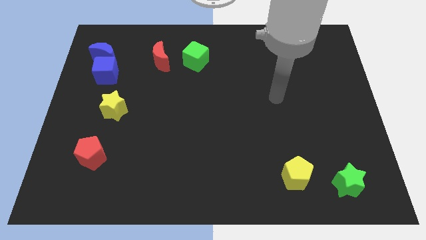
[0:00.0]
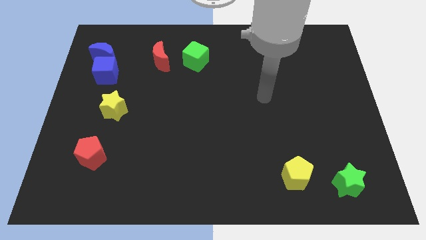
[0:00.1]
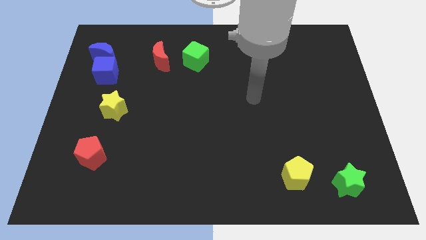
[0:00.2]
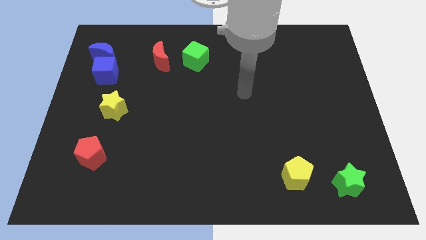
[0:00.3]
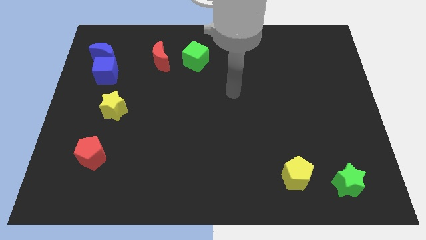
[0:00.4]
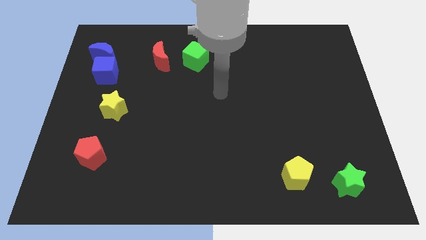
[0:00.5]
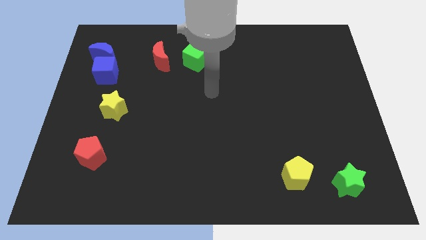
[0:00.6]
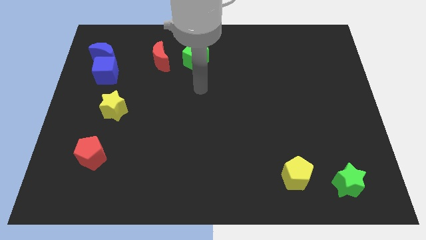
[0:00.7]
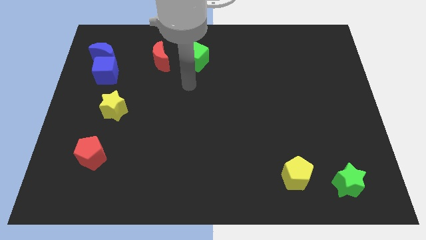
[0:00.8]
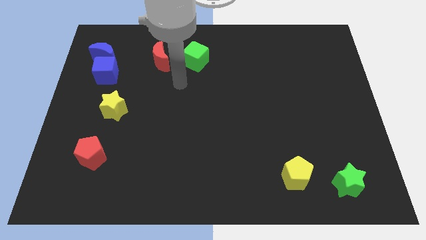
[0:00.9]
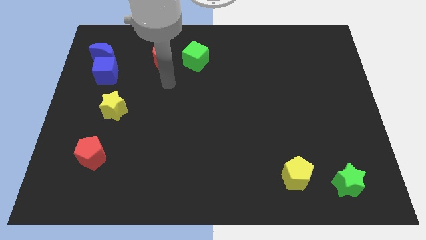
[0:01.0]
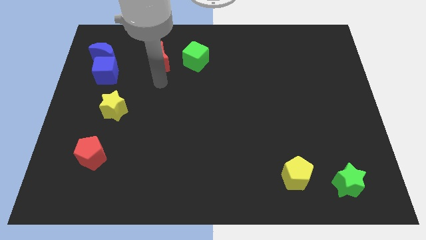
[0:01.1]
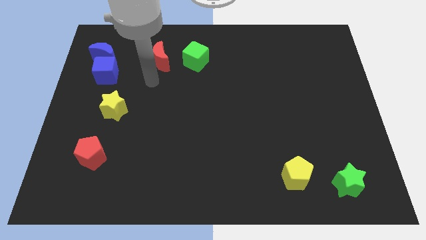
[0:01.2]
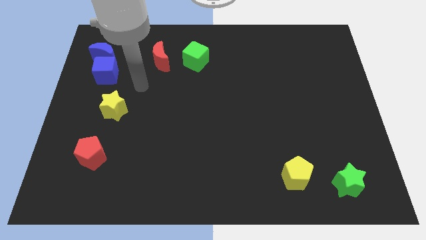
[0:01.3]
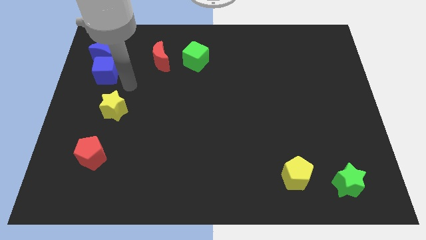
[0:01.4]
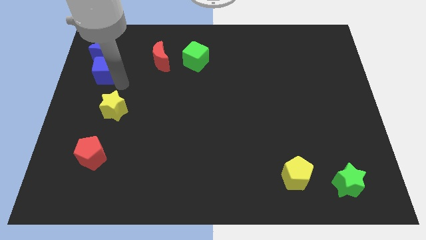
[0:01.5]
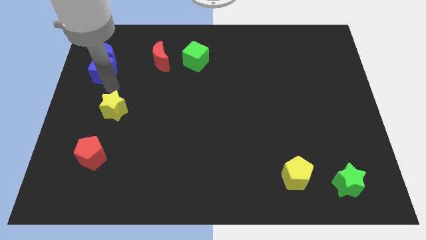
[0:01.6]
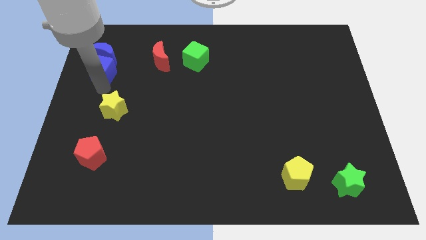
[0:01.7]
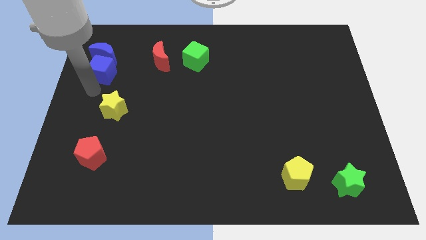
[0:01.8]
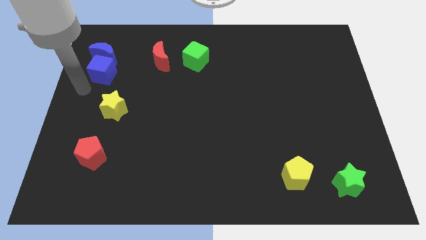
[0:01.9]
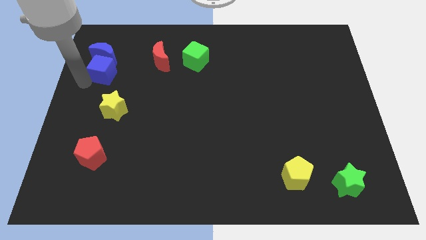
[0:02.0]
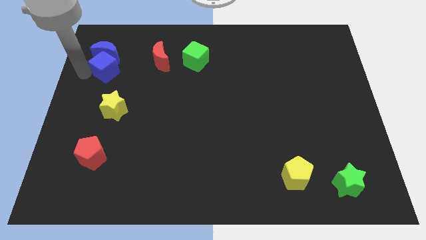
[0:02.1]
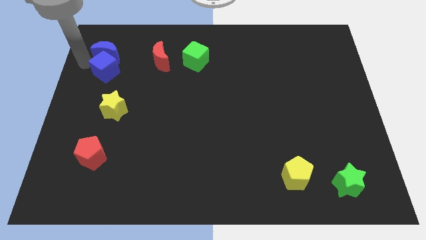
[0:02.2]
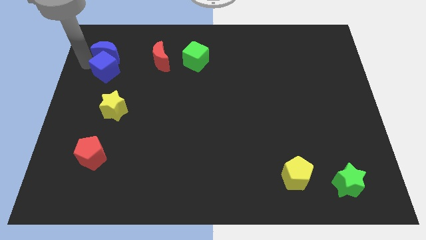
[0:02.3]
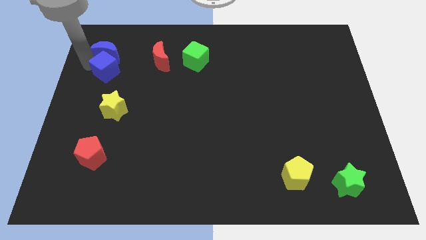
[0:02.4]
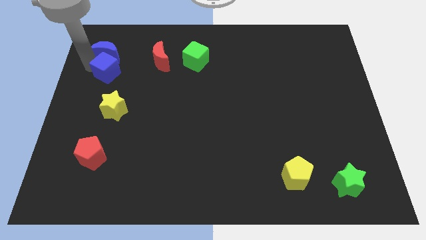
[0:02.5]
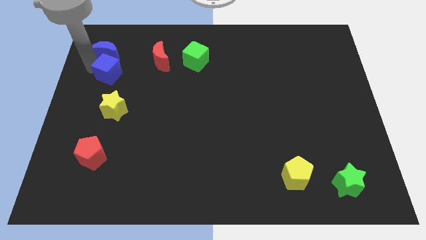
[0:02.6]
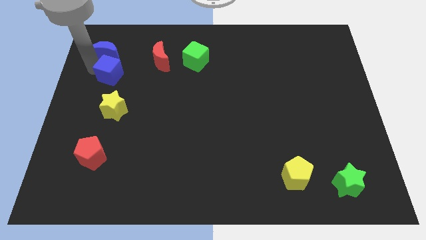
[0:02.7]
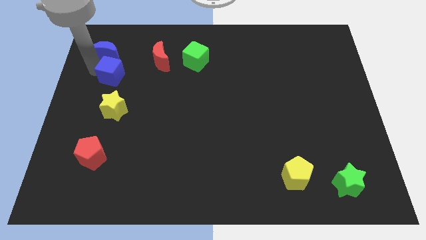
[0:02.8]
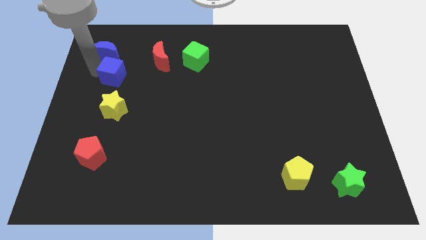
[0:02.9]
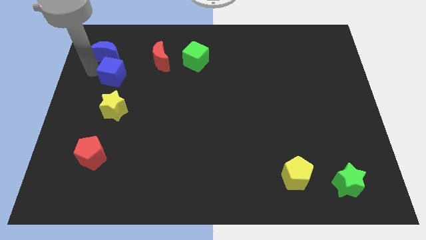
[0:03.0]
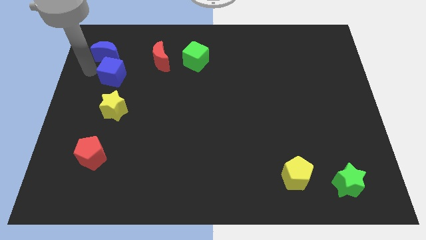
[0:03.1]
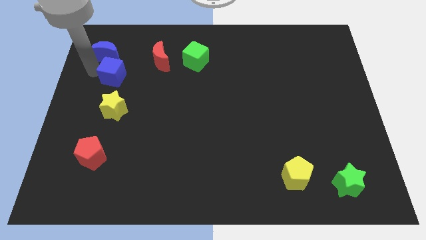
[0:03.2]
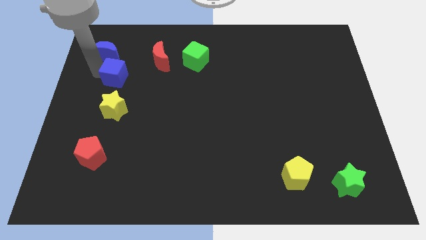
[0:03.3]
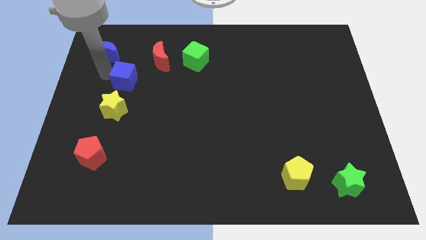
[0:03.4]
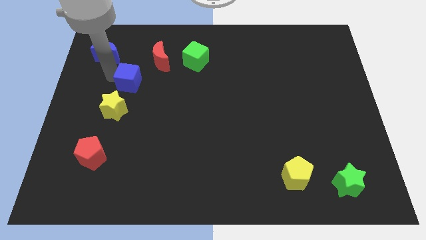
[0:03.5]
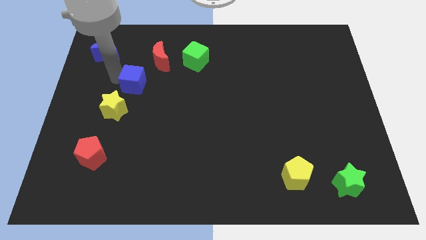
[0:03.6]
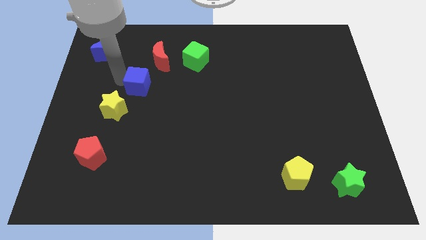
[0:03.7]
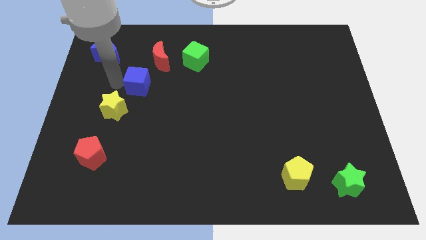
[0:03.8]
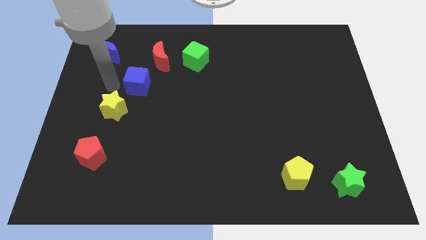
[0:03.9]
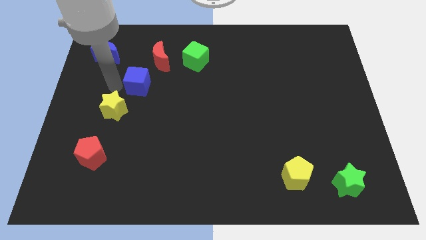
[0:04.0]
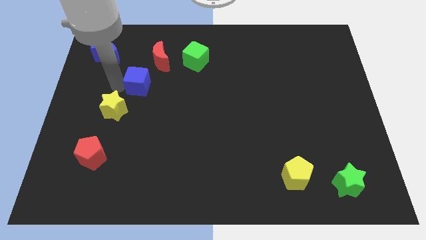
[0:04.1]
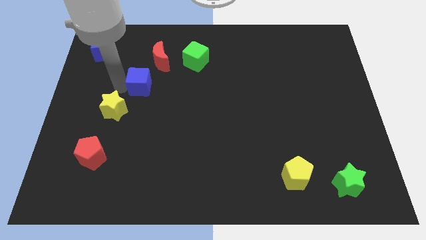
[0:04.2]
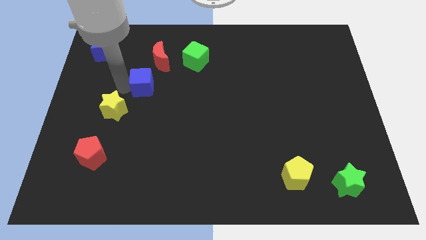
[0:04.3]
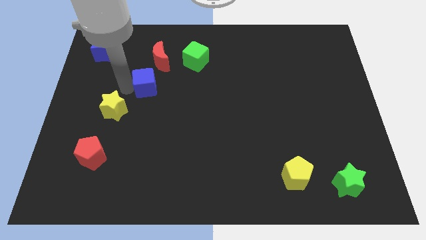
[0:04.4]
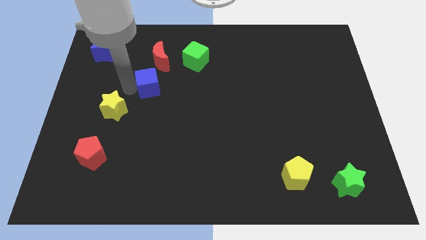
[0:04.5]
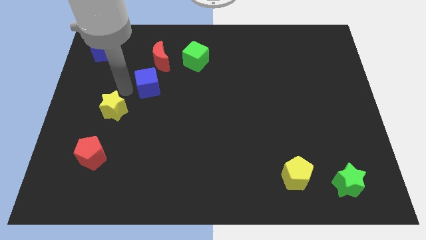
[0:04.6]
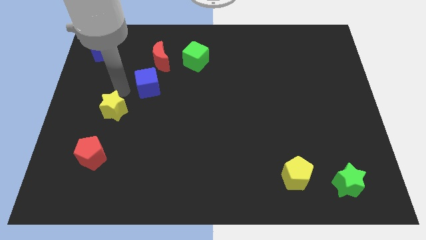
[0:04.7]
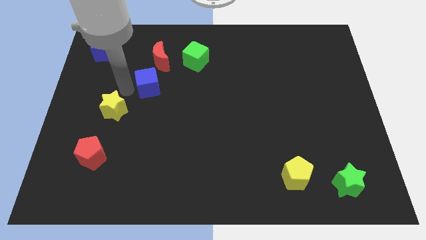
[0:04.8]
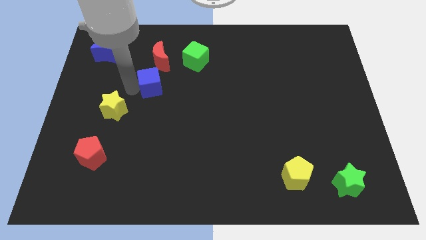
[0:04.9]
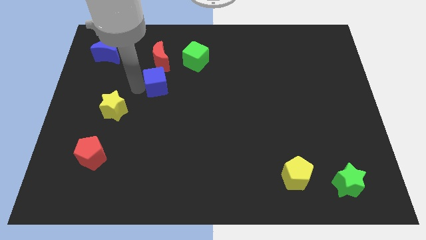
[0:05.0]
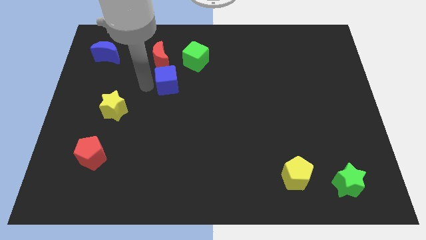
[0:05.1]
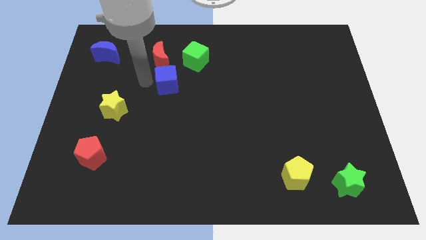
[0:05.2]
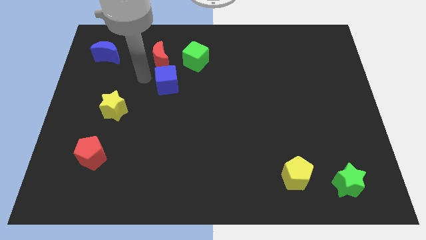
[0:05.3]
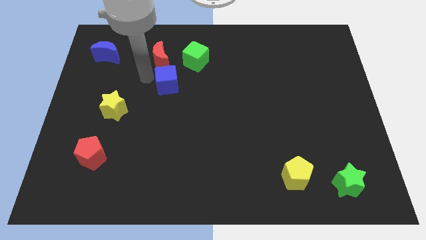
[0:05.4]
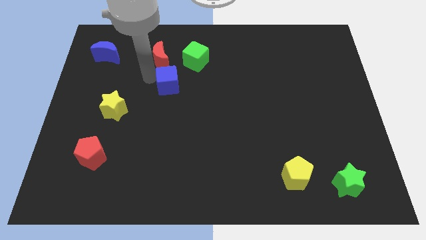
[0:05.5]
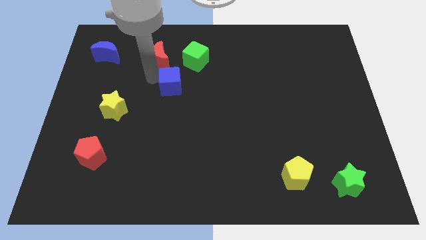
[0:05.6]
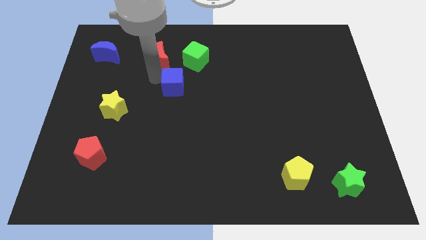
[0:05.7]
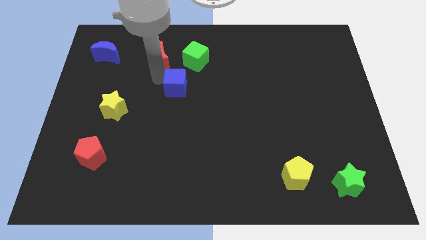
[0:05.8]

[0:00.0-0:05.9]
put the blue cube to the bottom side of the green cube

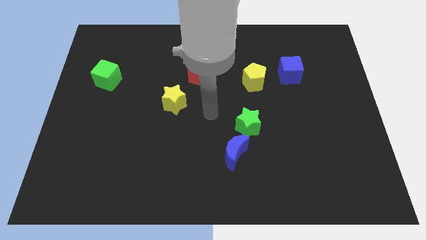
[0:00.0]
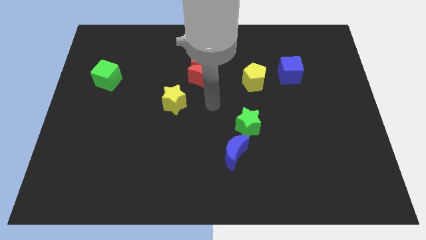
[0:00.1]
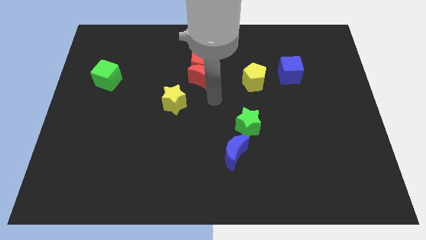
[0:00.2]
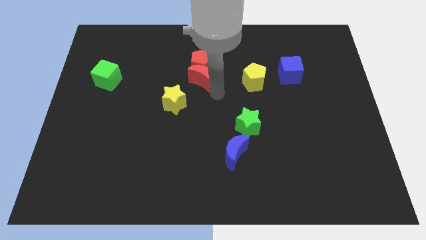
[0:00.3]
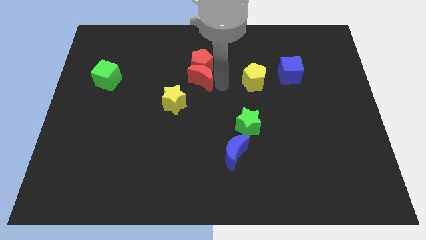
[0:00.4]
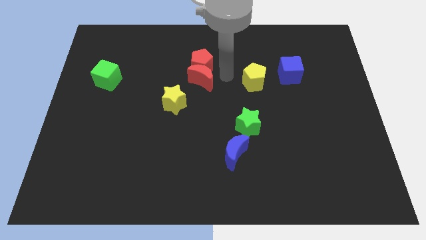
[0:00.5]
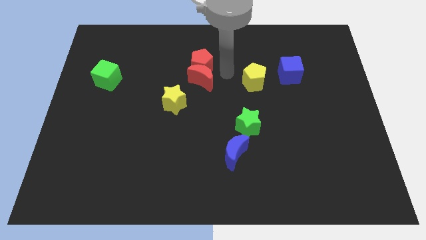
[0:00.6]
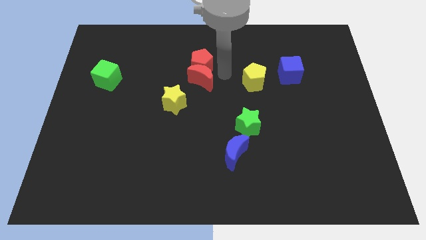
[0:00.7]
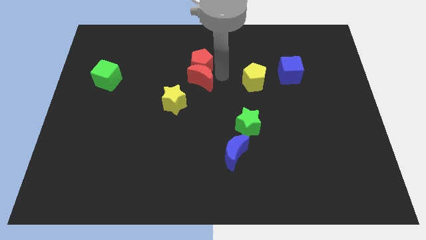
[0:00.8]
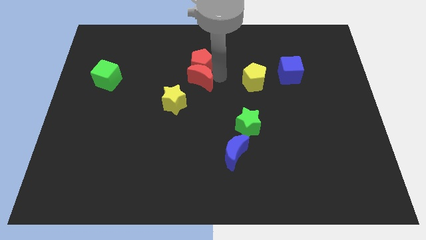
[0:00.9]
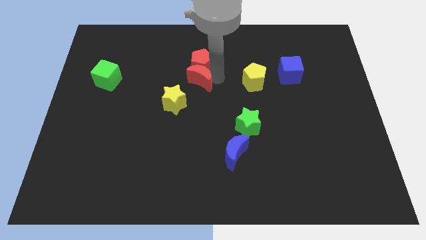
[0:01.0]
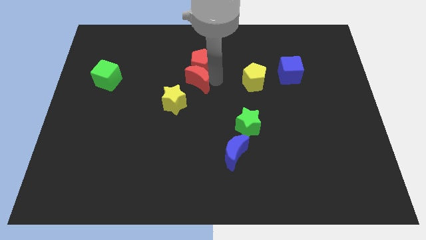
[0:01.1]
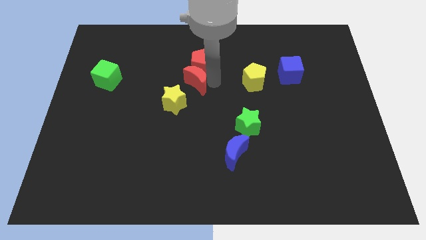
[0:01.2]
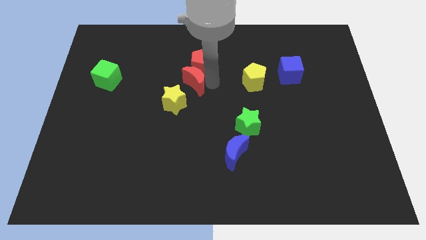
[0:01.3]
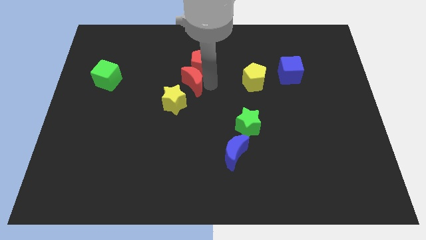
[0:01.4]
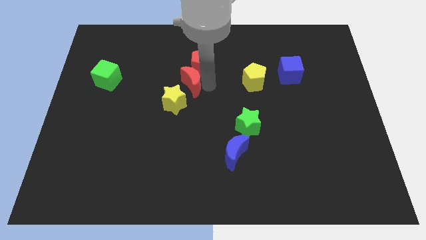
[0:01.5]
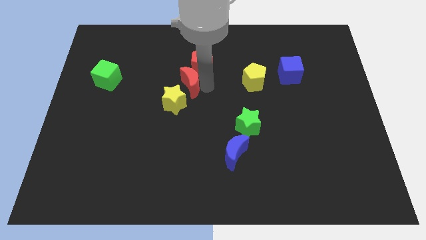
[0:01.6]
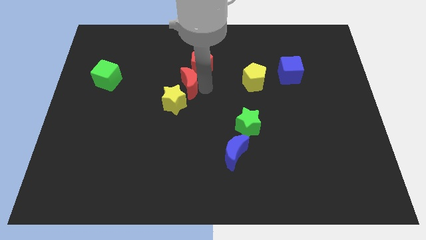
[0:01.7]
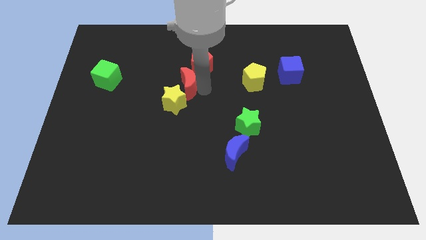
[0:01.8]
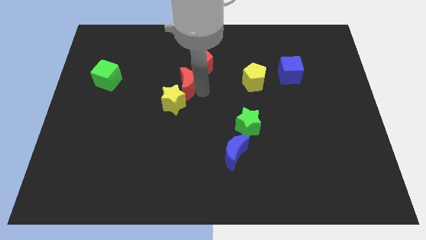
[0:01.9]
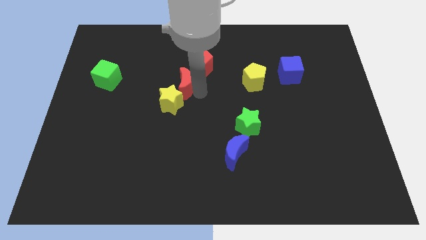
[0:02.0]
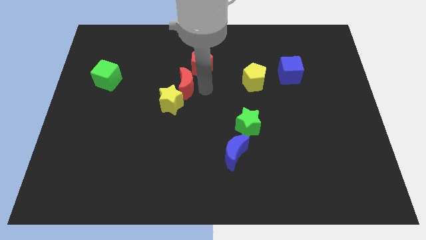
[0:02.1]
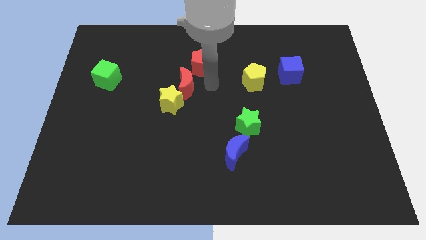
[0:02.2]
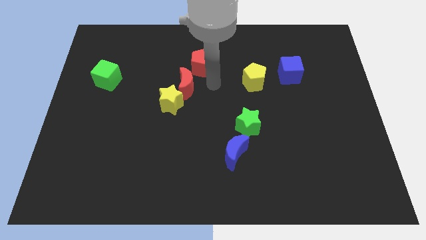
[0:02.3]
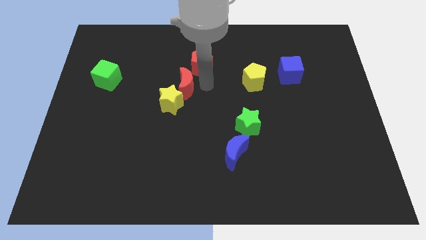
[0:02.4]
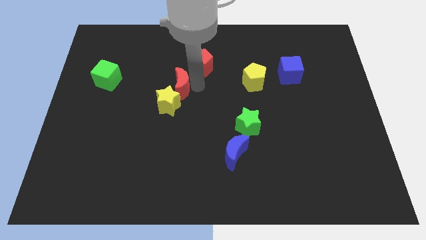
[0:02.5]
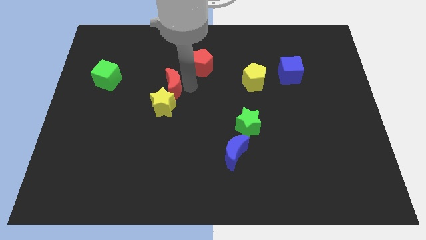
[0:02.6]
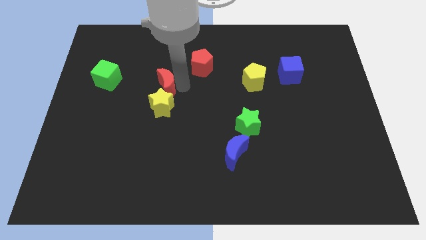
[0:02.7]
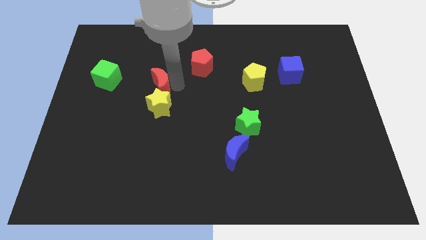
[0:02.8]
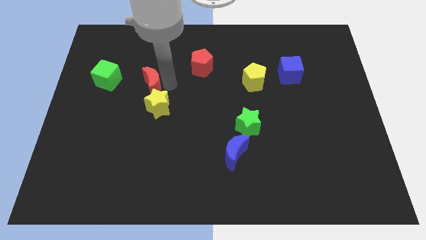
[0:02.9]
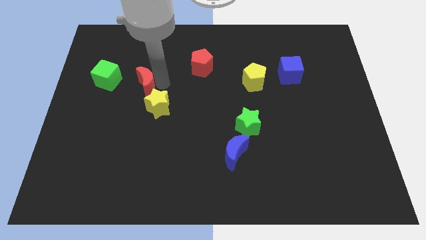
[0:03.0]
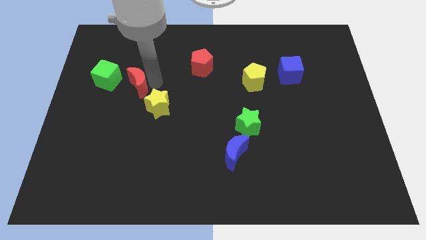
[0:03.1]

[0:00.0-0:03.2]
push the red moon to the bottom right of the green cube
